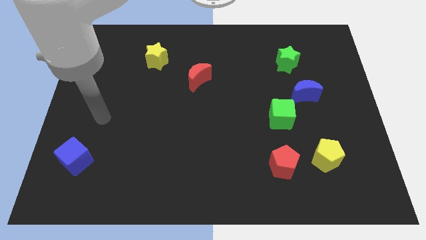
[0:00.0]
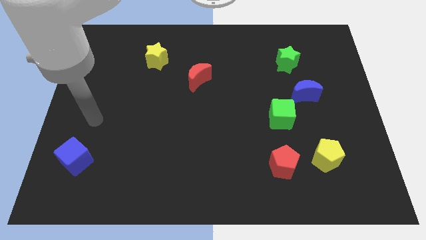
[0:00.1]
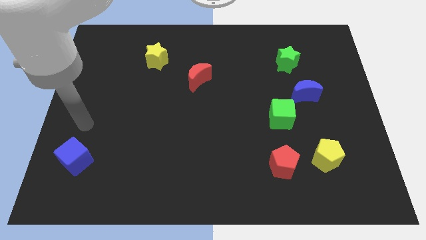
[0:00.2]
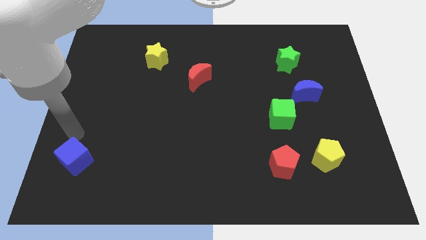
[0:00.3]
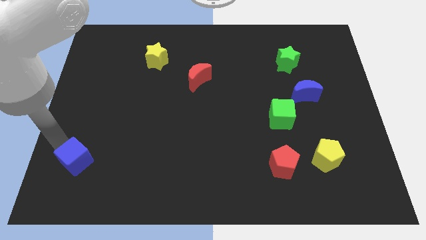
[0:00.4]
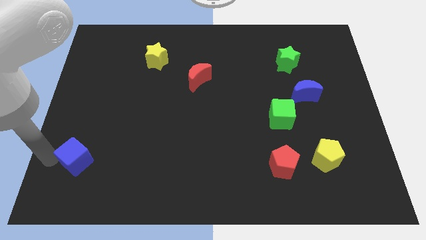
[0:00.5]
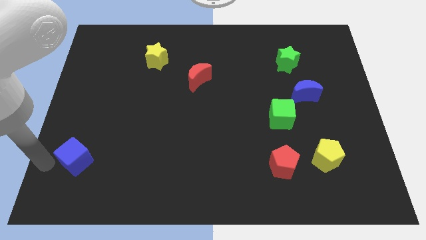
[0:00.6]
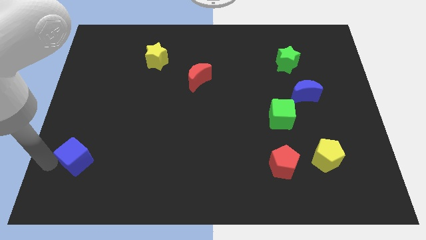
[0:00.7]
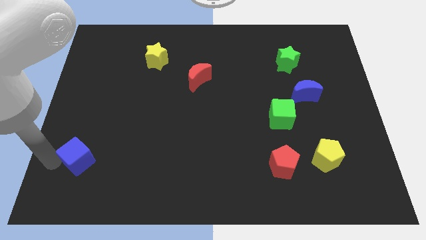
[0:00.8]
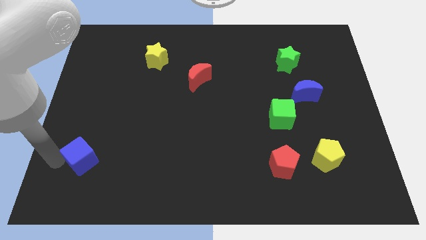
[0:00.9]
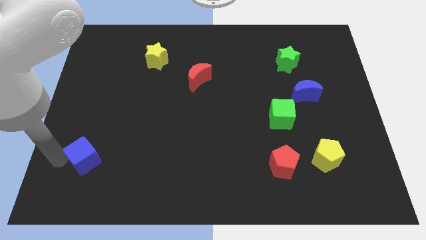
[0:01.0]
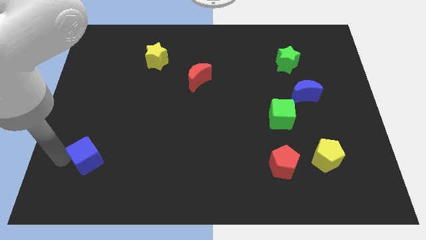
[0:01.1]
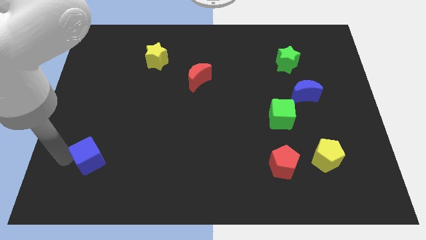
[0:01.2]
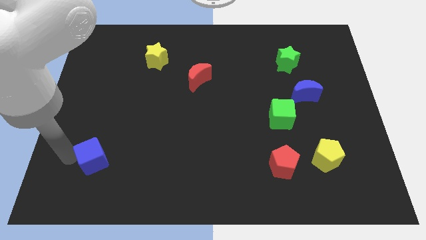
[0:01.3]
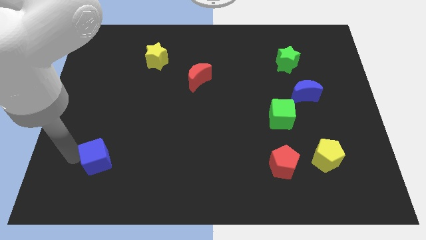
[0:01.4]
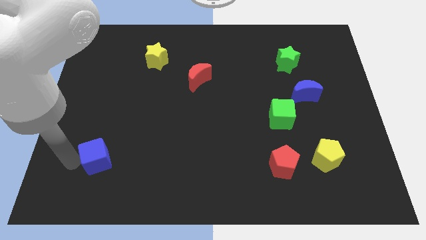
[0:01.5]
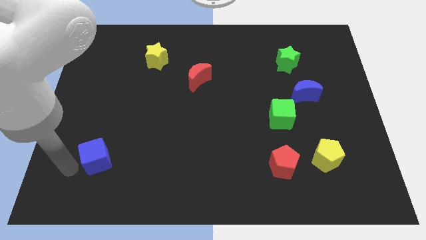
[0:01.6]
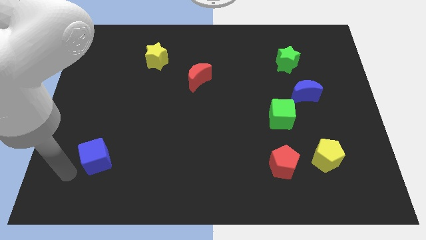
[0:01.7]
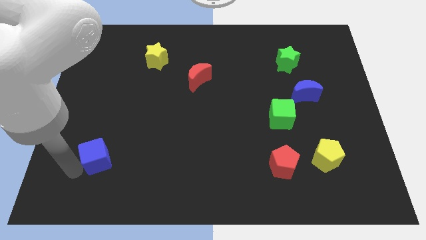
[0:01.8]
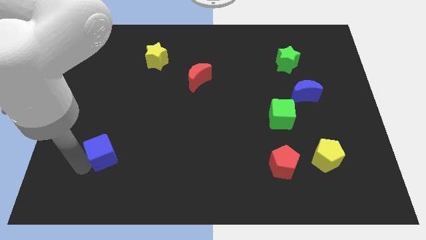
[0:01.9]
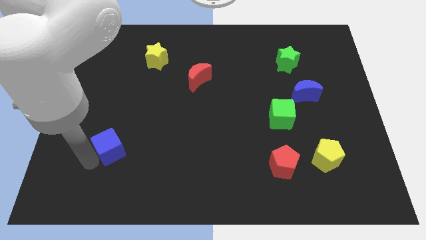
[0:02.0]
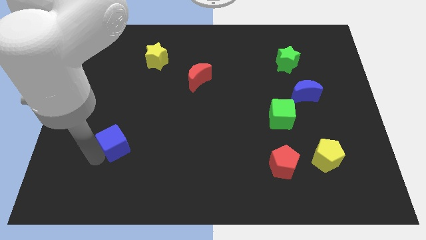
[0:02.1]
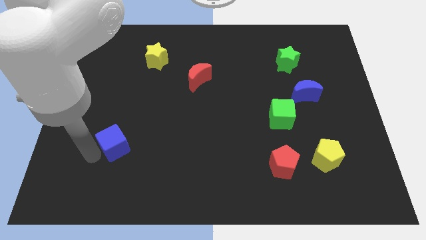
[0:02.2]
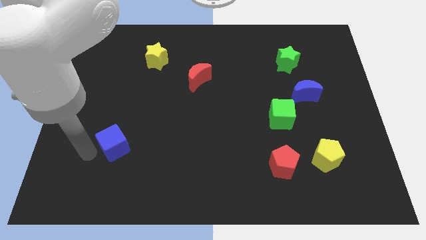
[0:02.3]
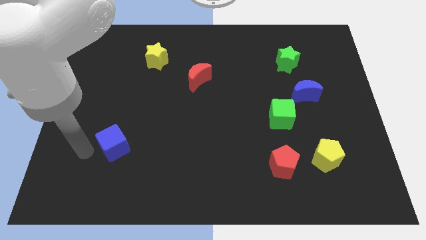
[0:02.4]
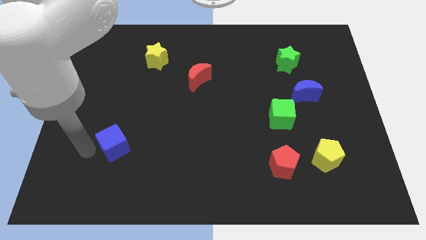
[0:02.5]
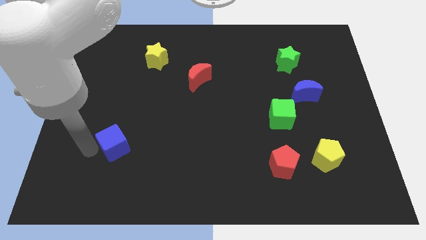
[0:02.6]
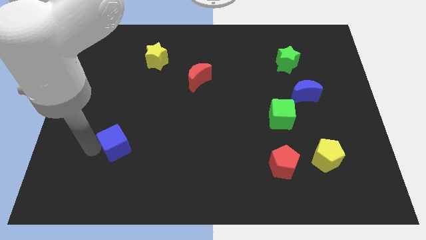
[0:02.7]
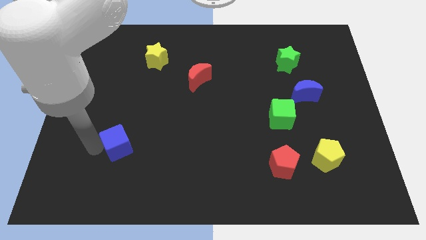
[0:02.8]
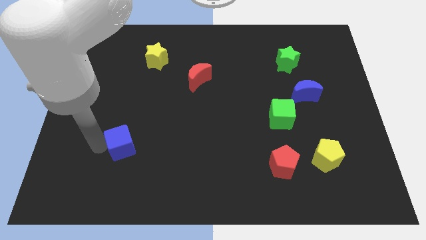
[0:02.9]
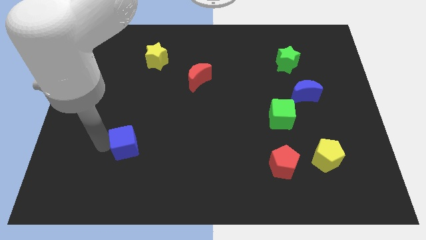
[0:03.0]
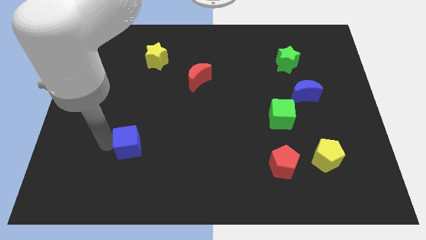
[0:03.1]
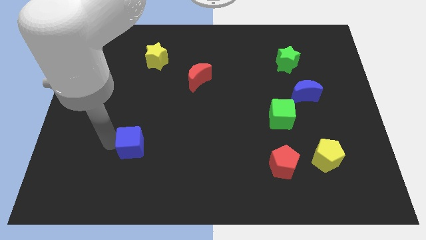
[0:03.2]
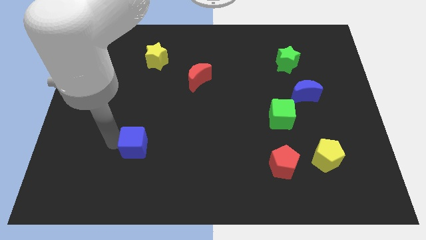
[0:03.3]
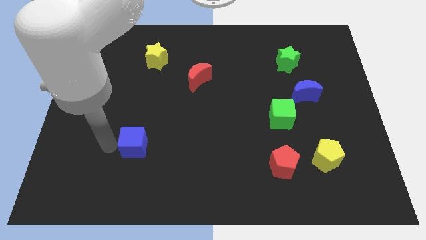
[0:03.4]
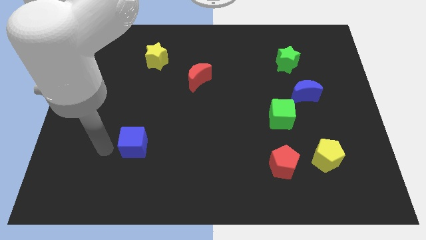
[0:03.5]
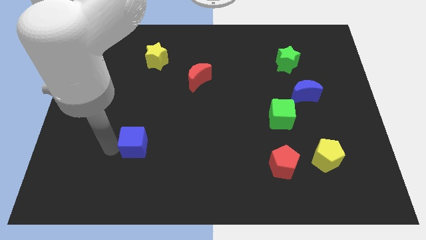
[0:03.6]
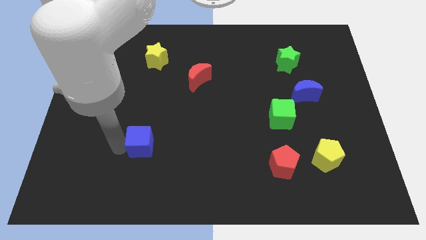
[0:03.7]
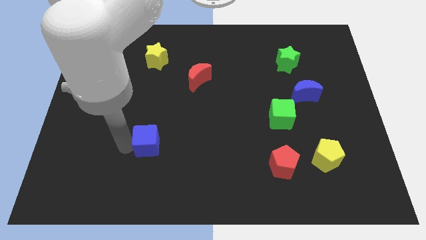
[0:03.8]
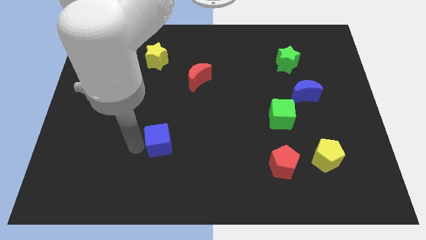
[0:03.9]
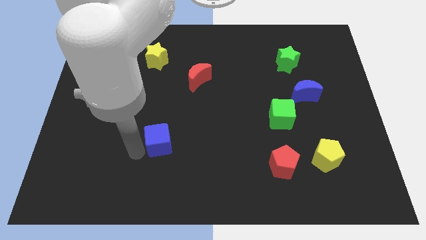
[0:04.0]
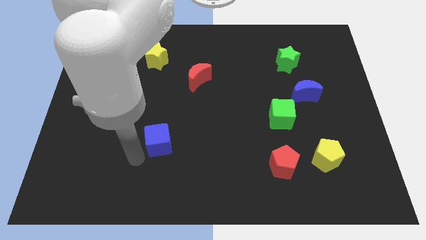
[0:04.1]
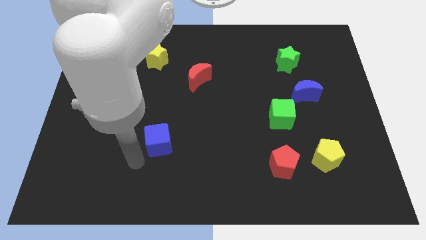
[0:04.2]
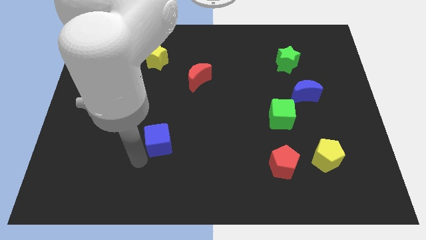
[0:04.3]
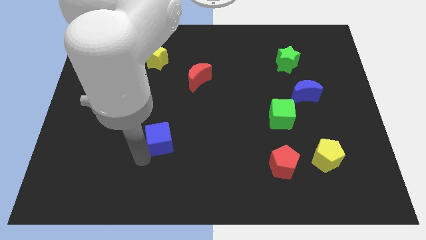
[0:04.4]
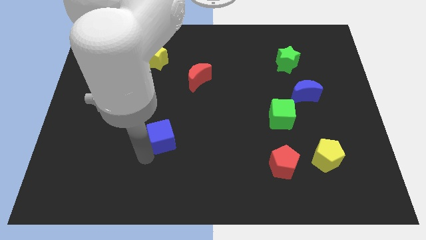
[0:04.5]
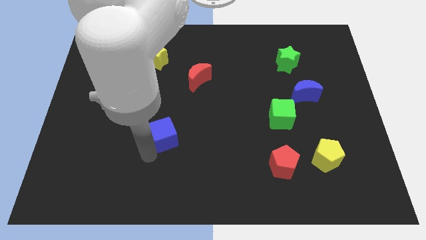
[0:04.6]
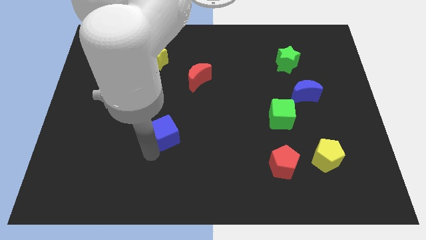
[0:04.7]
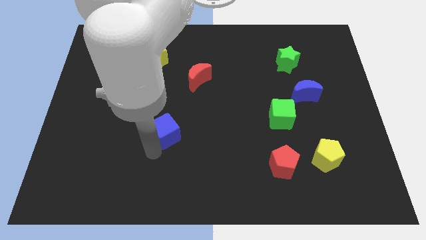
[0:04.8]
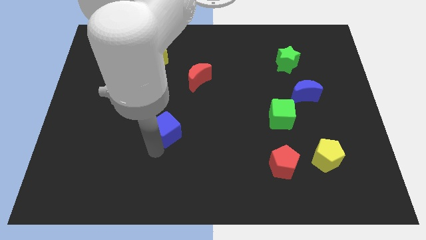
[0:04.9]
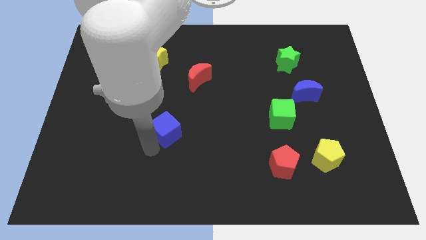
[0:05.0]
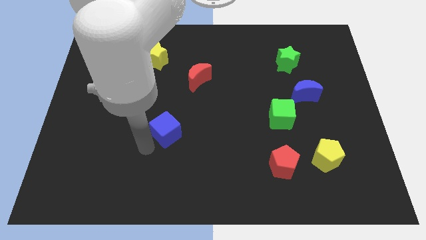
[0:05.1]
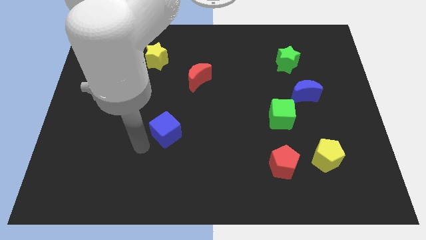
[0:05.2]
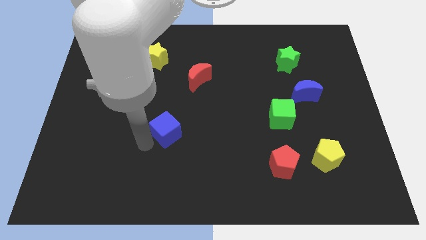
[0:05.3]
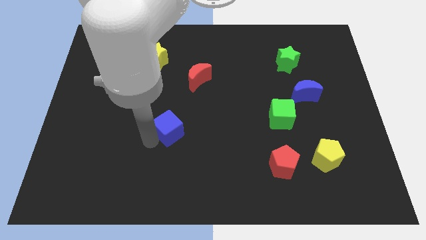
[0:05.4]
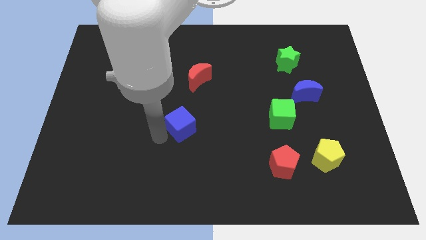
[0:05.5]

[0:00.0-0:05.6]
push the blue cube to the middle of the board

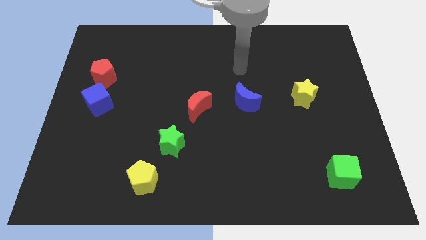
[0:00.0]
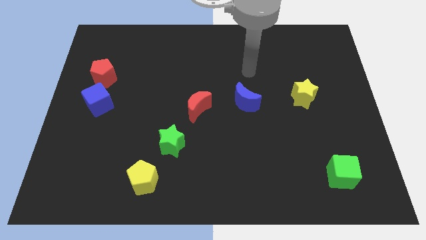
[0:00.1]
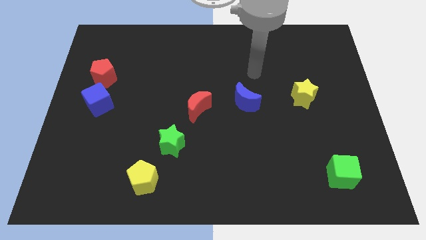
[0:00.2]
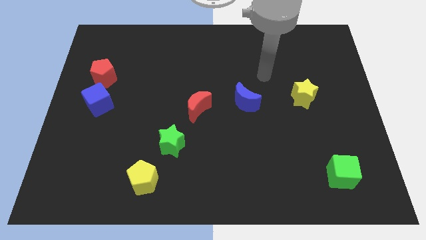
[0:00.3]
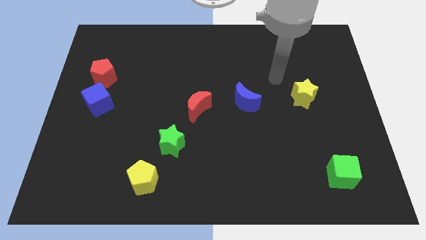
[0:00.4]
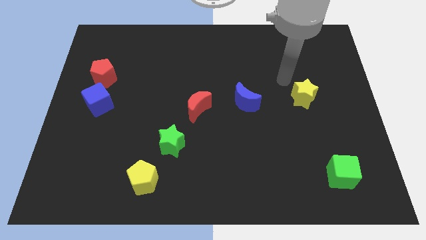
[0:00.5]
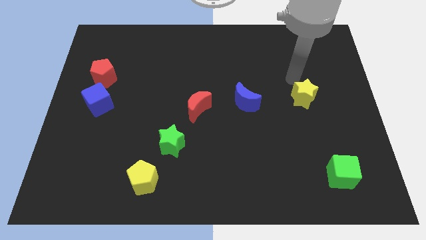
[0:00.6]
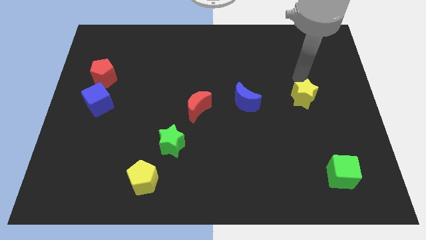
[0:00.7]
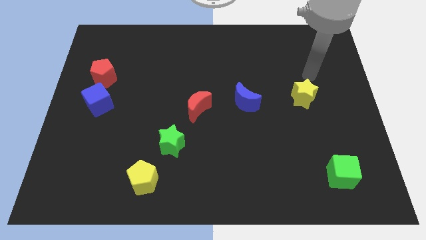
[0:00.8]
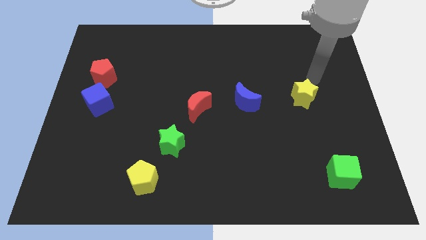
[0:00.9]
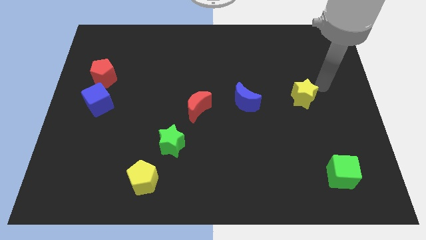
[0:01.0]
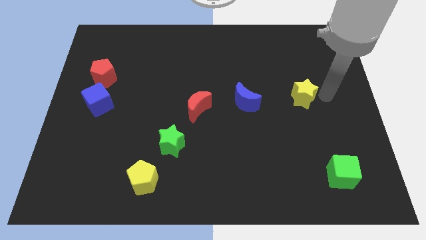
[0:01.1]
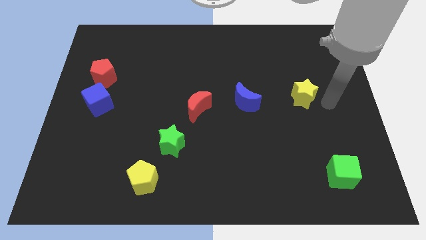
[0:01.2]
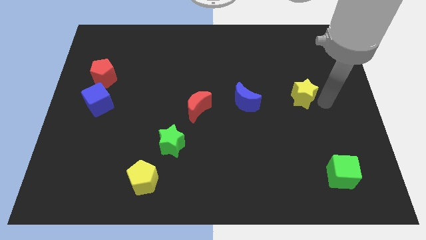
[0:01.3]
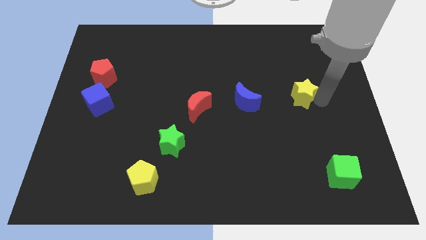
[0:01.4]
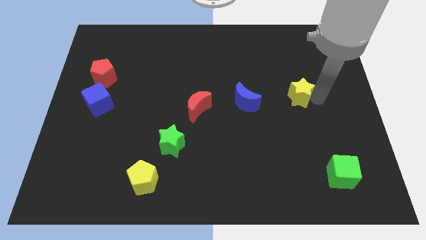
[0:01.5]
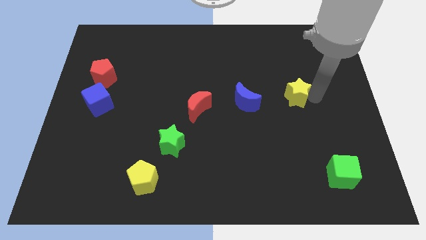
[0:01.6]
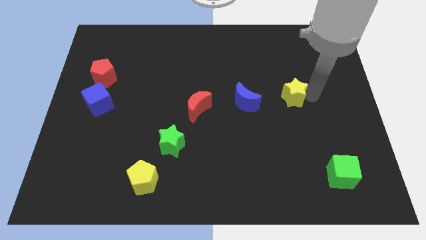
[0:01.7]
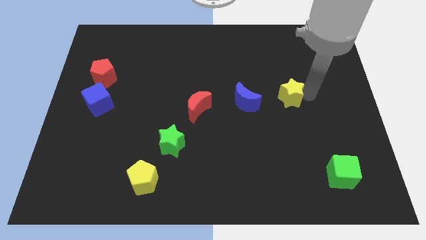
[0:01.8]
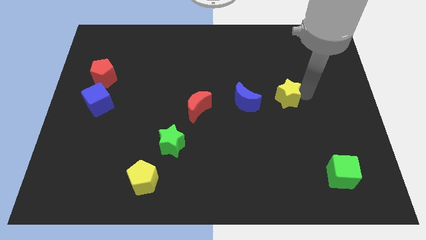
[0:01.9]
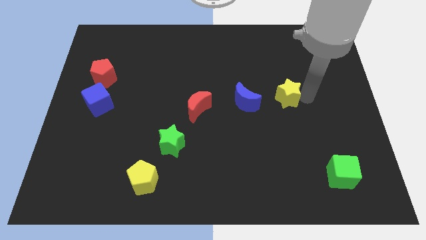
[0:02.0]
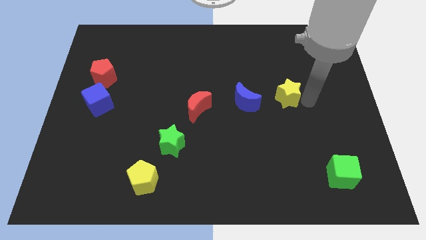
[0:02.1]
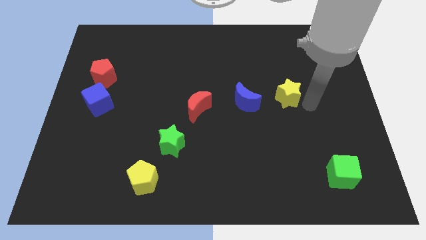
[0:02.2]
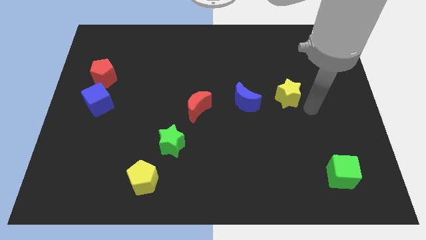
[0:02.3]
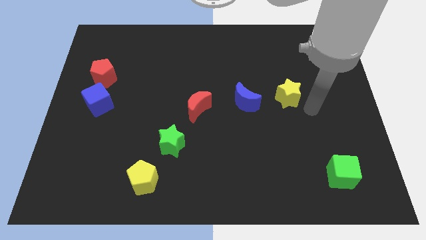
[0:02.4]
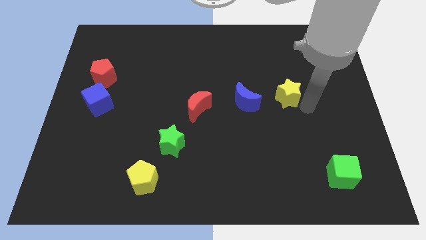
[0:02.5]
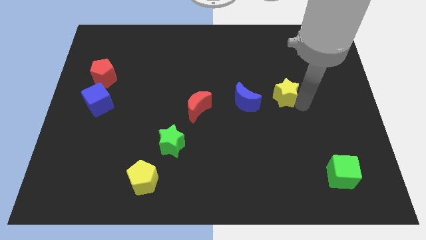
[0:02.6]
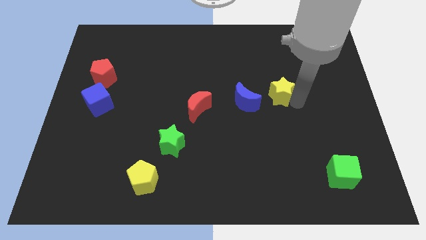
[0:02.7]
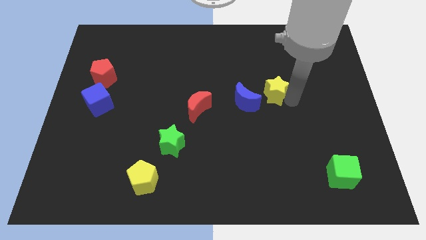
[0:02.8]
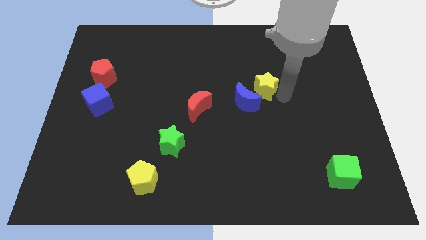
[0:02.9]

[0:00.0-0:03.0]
slide the yellow star to the center
